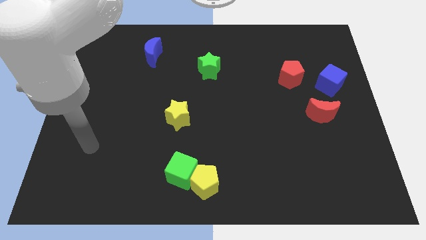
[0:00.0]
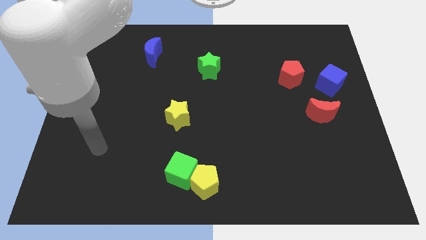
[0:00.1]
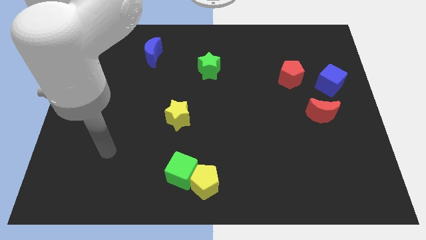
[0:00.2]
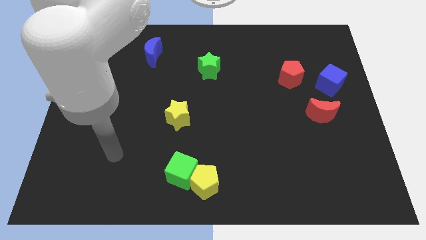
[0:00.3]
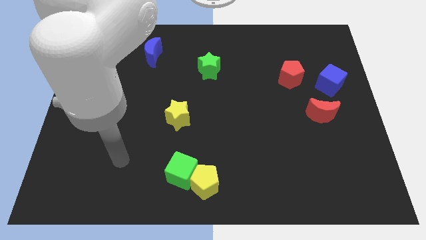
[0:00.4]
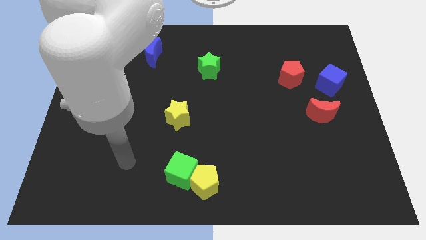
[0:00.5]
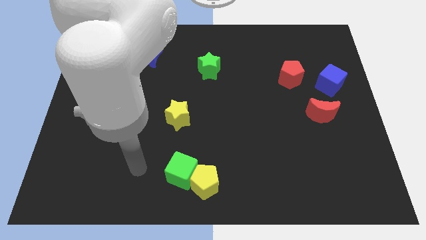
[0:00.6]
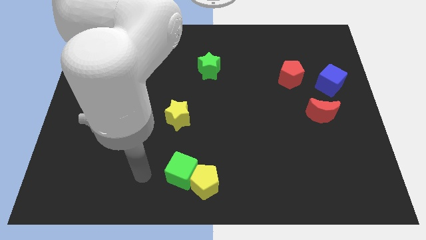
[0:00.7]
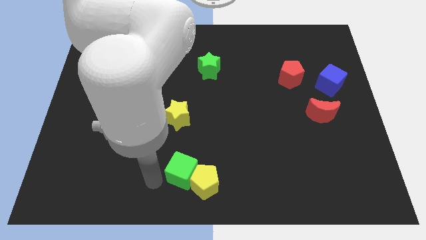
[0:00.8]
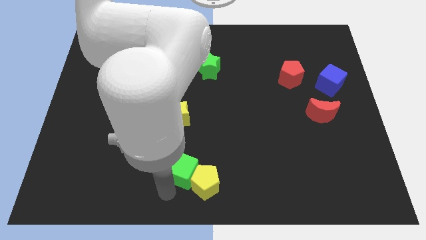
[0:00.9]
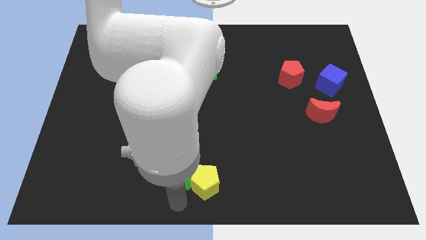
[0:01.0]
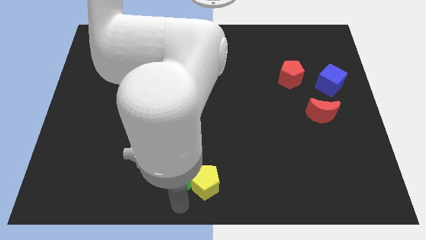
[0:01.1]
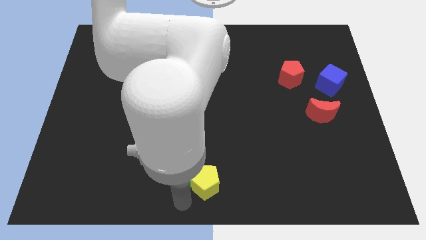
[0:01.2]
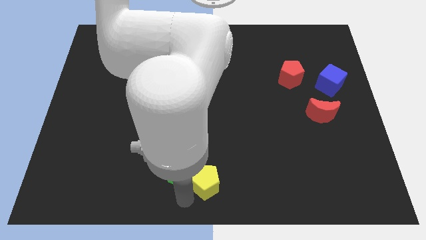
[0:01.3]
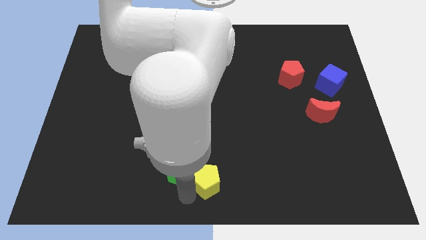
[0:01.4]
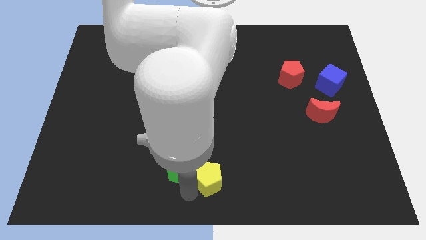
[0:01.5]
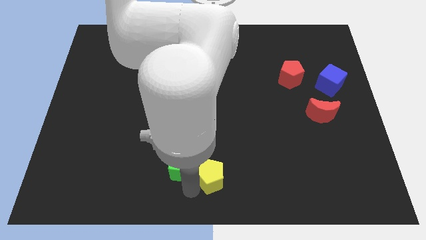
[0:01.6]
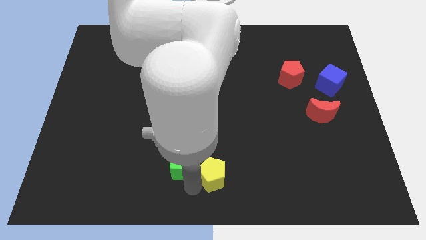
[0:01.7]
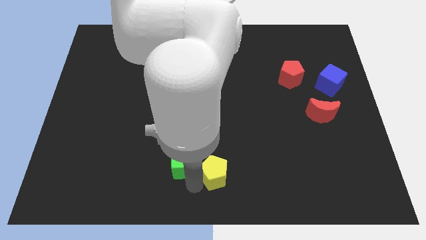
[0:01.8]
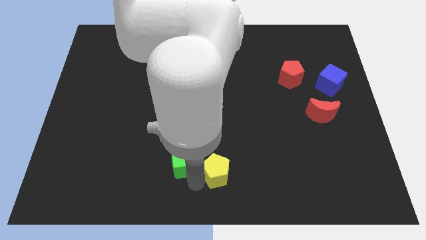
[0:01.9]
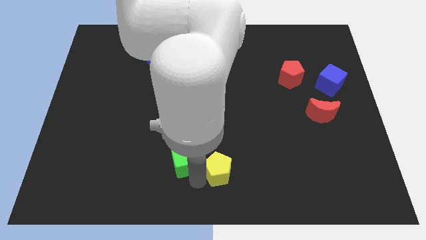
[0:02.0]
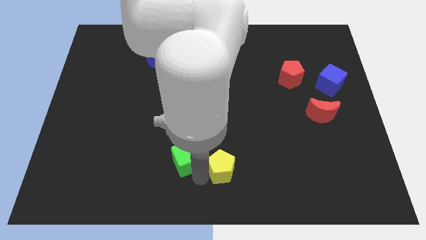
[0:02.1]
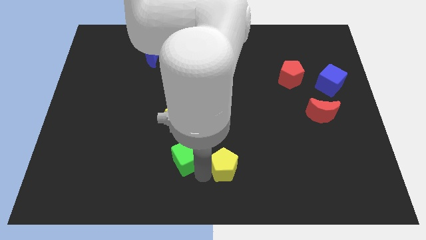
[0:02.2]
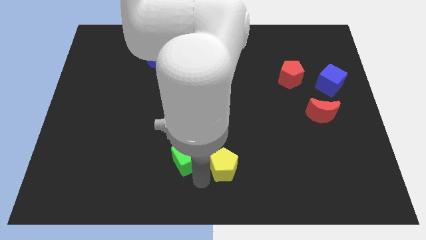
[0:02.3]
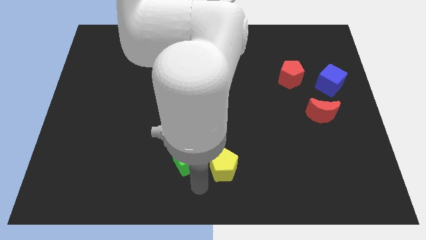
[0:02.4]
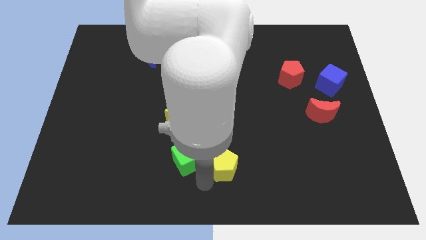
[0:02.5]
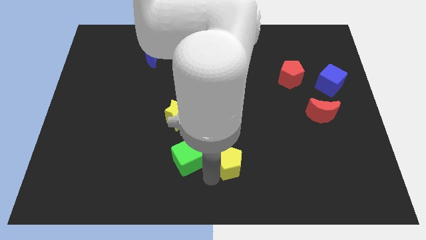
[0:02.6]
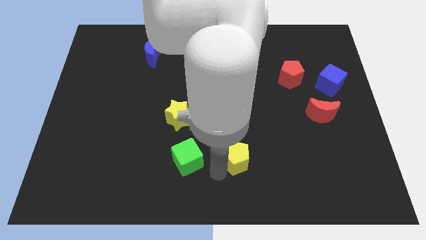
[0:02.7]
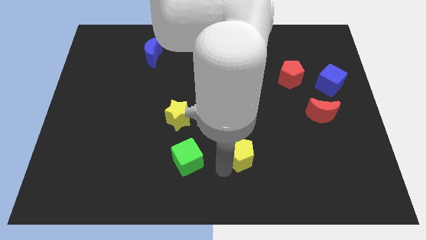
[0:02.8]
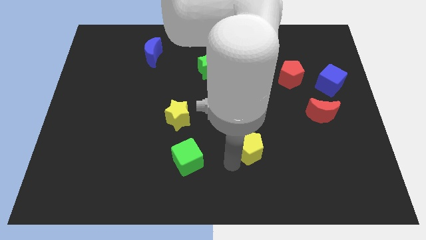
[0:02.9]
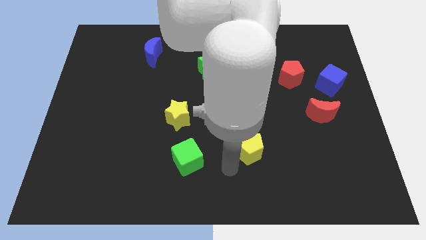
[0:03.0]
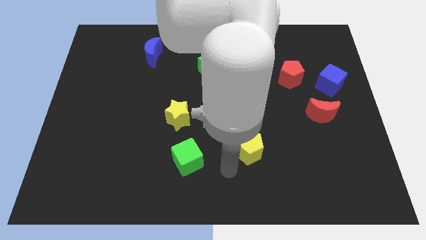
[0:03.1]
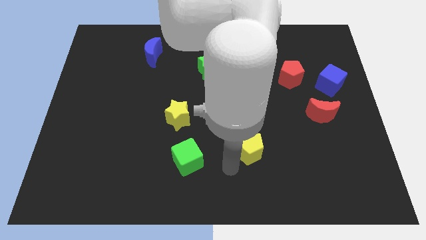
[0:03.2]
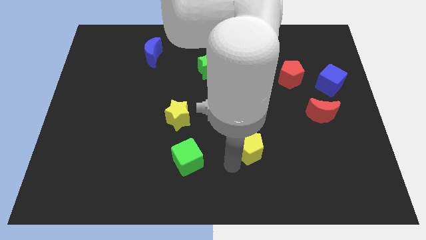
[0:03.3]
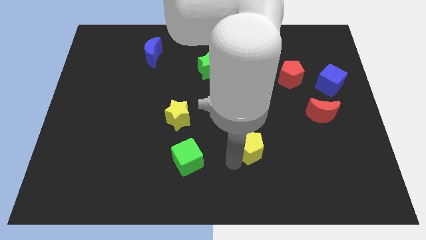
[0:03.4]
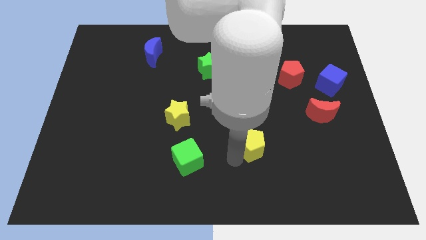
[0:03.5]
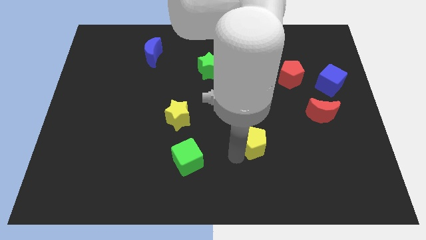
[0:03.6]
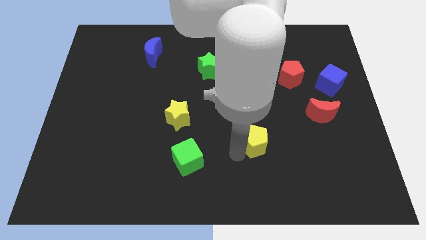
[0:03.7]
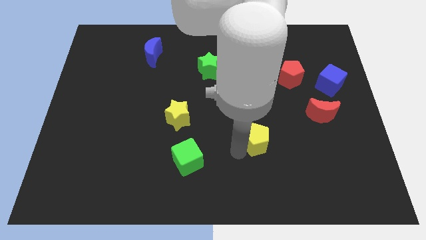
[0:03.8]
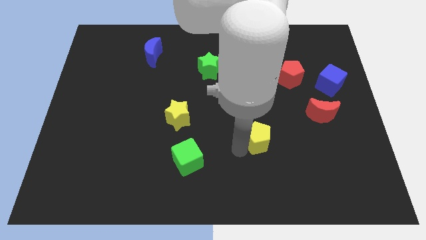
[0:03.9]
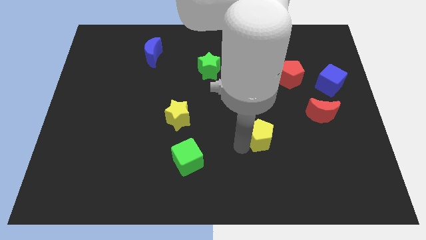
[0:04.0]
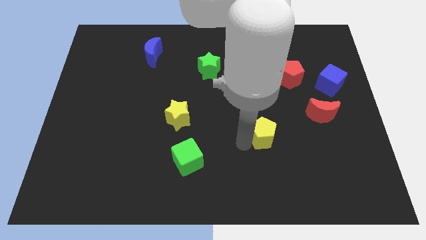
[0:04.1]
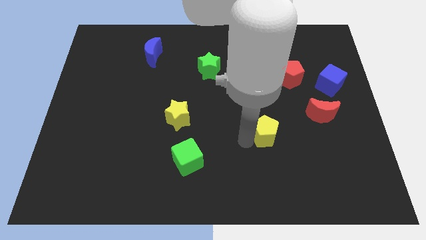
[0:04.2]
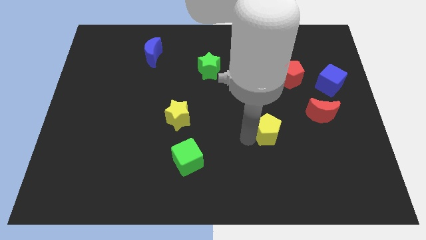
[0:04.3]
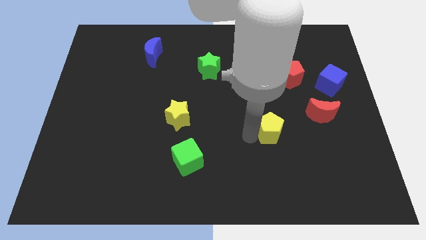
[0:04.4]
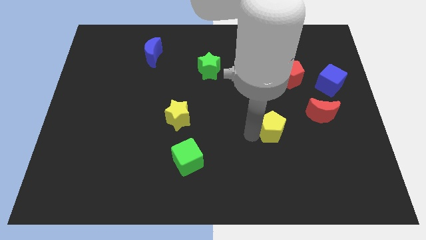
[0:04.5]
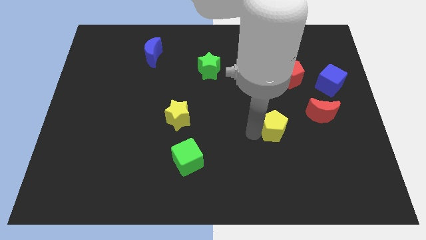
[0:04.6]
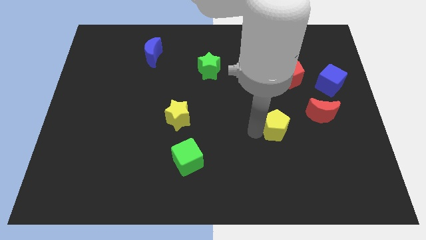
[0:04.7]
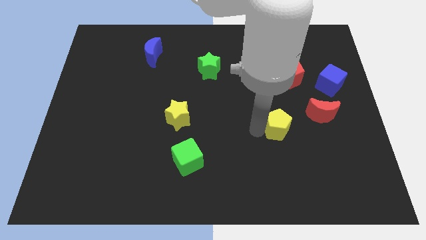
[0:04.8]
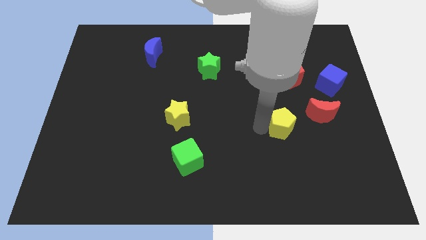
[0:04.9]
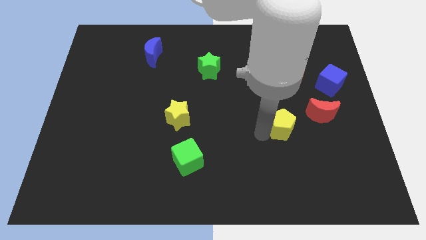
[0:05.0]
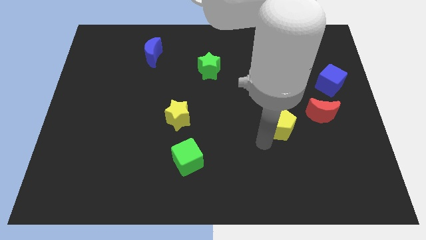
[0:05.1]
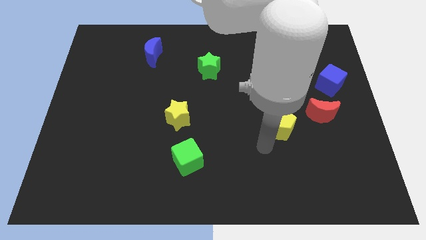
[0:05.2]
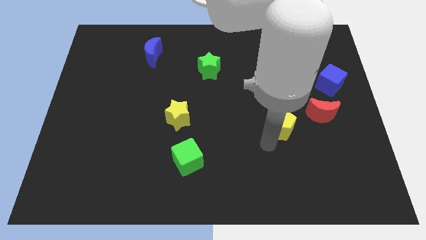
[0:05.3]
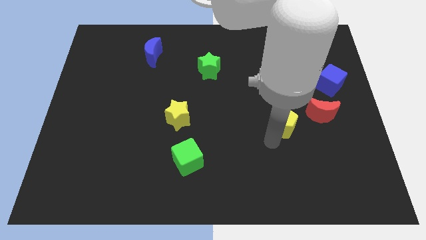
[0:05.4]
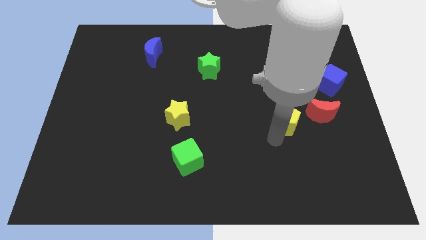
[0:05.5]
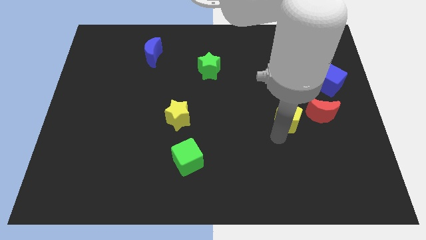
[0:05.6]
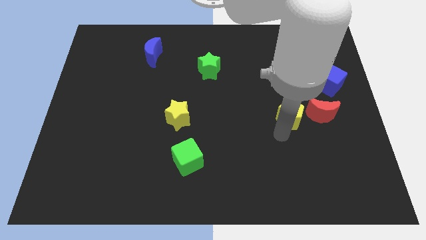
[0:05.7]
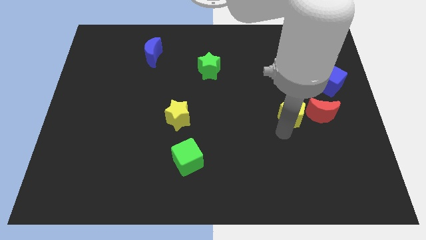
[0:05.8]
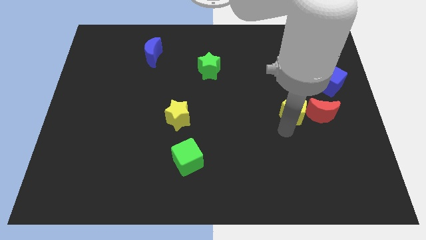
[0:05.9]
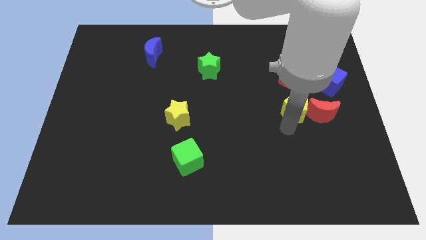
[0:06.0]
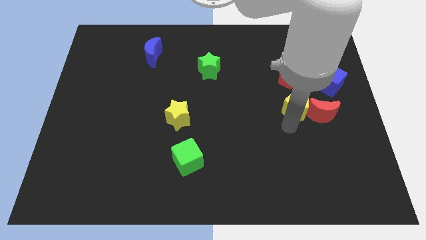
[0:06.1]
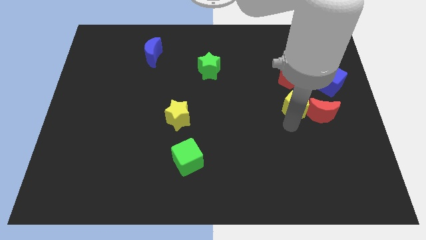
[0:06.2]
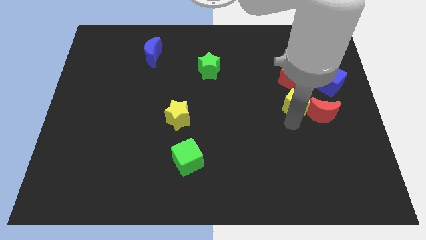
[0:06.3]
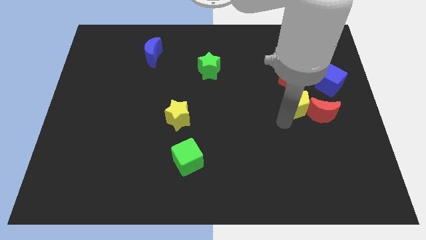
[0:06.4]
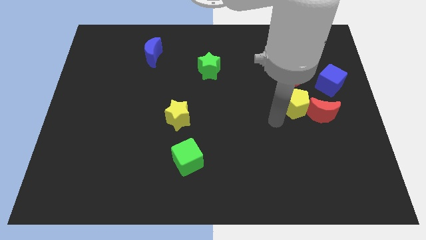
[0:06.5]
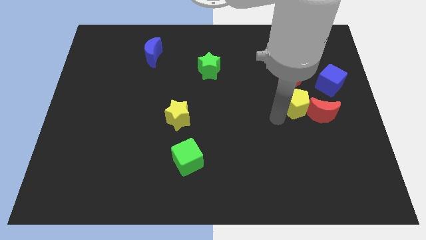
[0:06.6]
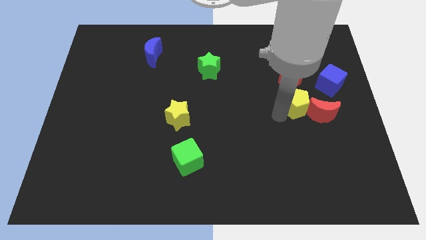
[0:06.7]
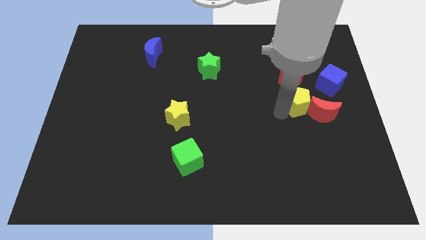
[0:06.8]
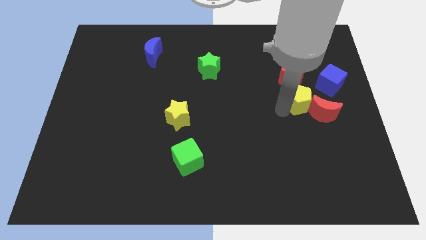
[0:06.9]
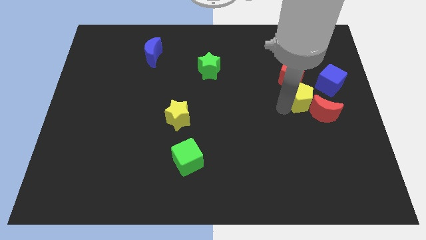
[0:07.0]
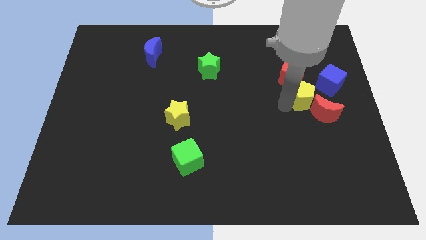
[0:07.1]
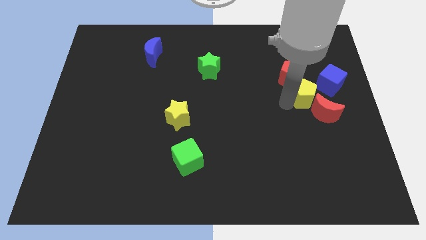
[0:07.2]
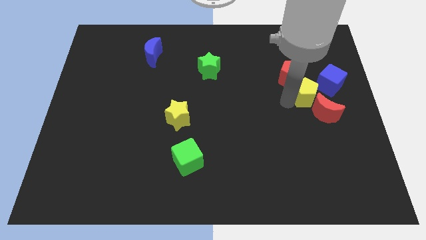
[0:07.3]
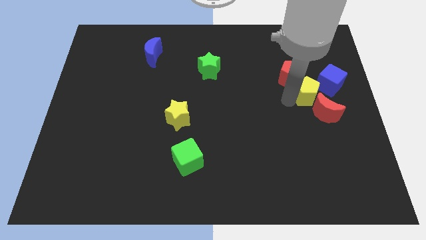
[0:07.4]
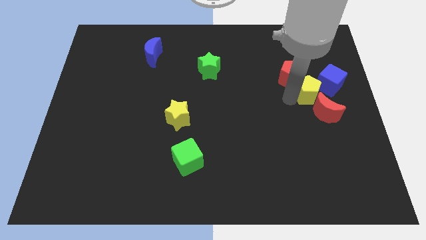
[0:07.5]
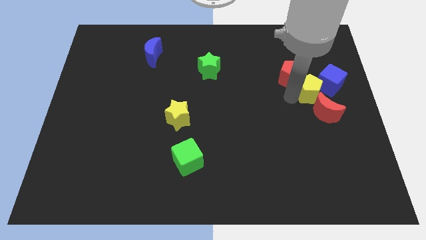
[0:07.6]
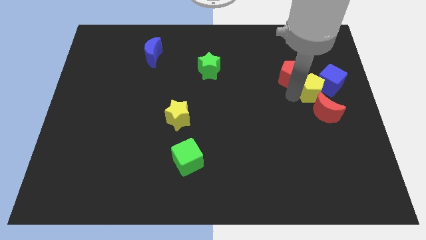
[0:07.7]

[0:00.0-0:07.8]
push the yellow pentagon next to the blue cube
